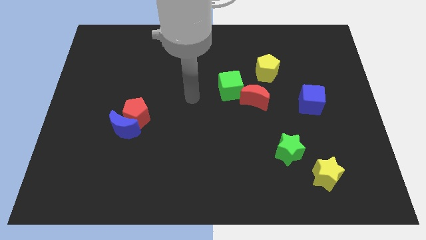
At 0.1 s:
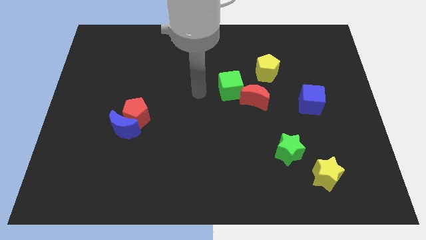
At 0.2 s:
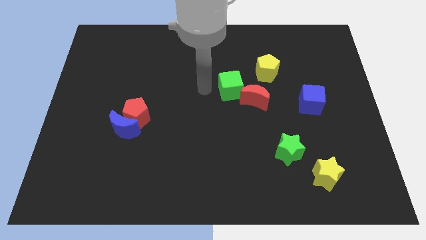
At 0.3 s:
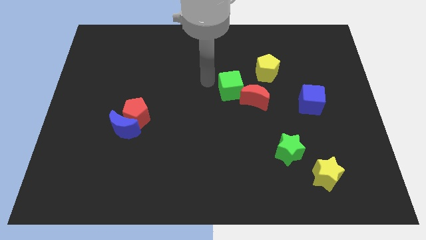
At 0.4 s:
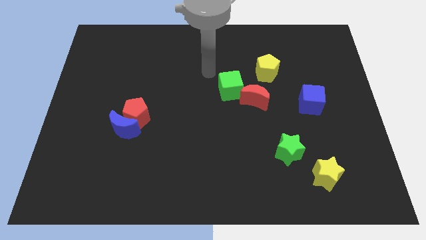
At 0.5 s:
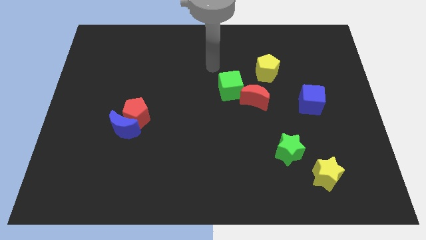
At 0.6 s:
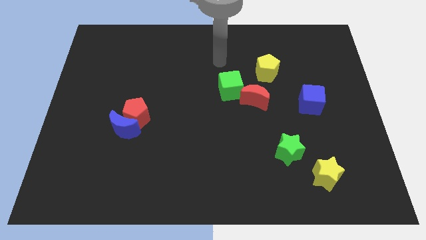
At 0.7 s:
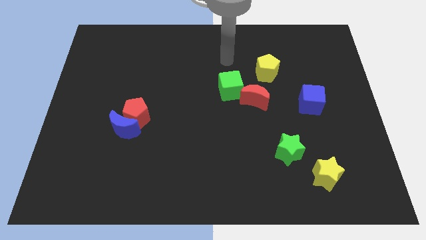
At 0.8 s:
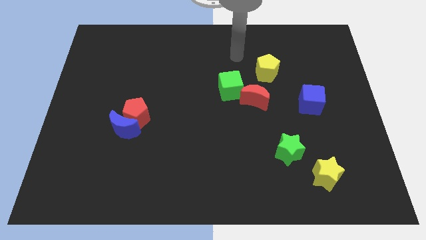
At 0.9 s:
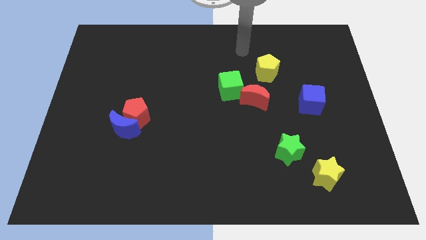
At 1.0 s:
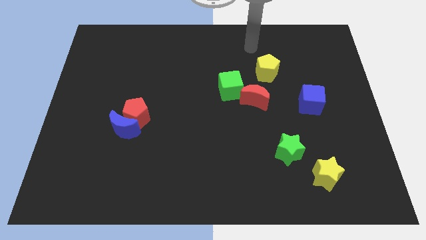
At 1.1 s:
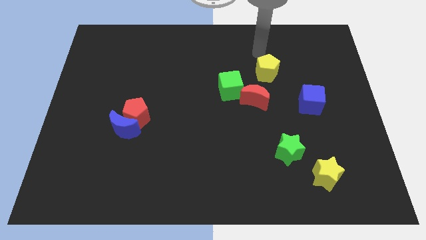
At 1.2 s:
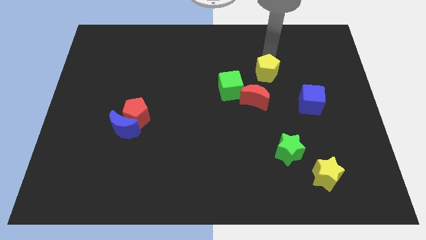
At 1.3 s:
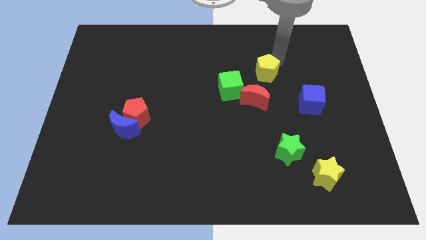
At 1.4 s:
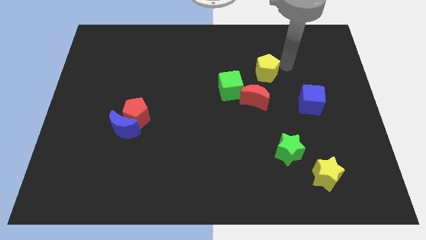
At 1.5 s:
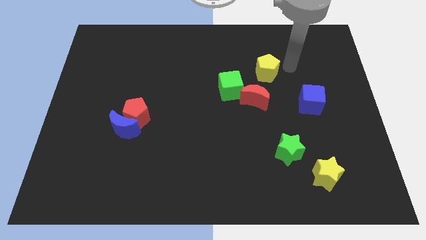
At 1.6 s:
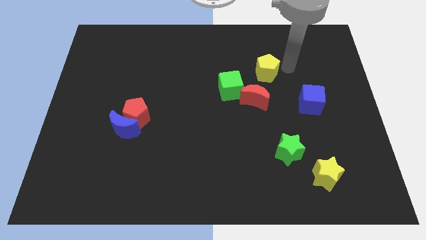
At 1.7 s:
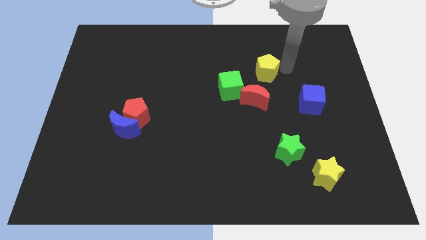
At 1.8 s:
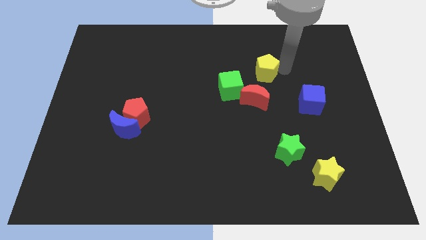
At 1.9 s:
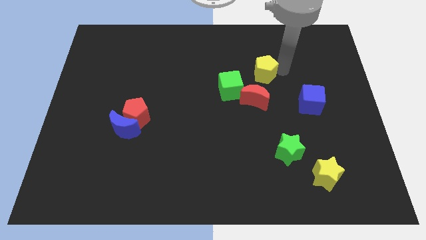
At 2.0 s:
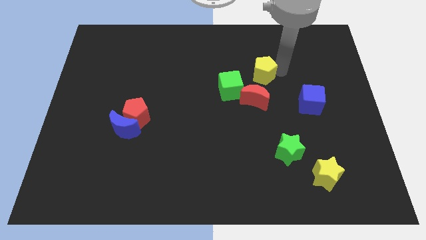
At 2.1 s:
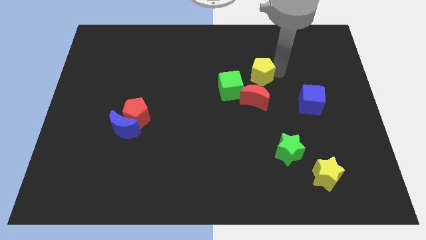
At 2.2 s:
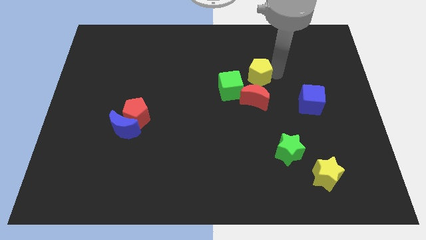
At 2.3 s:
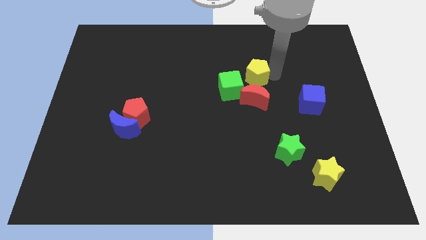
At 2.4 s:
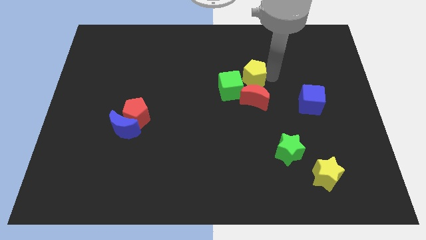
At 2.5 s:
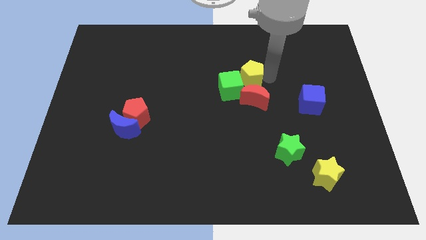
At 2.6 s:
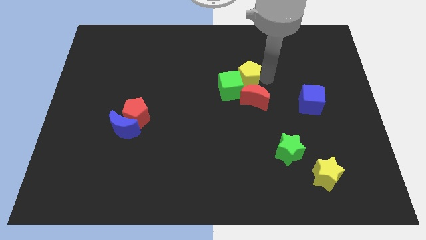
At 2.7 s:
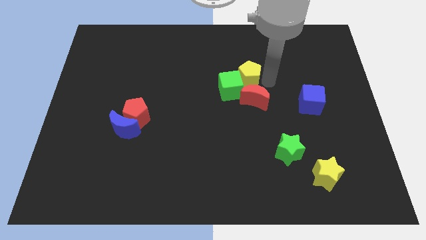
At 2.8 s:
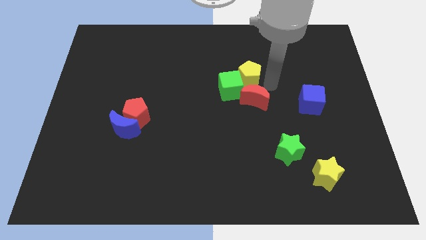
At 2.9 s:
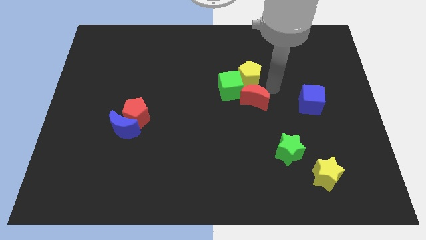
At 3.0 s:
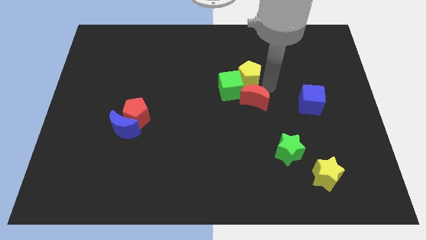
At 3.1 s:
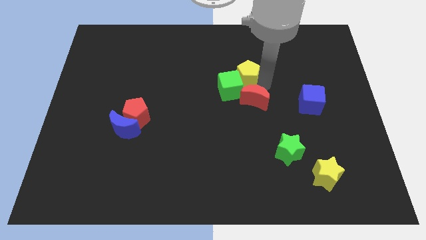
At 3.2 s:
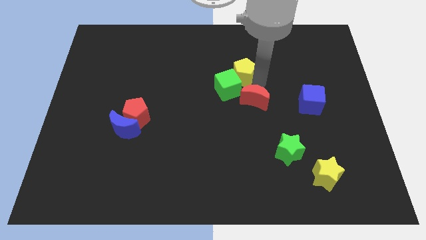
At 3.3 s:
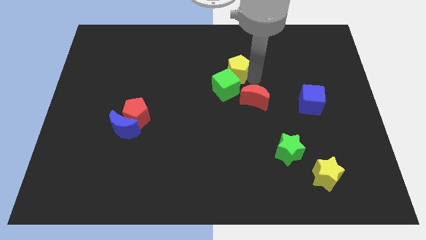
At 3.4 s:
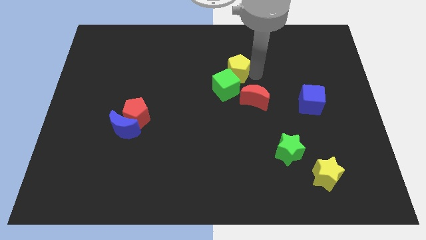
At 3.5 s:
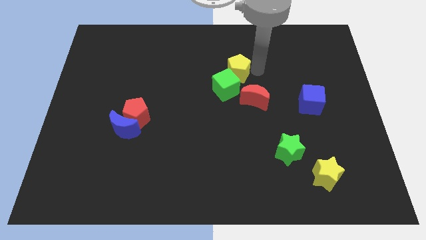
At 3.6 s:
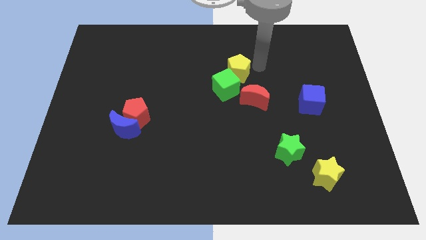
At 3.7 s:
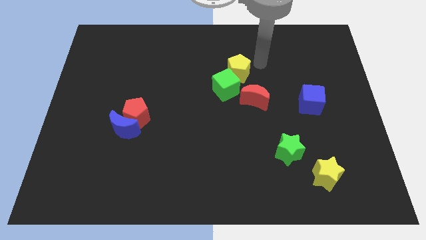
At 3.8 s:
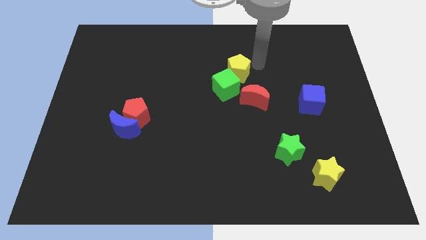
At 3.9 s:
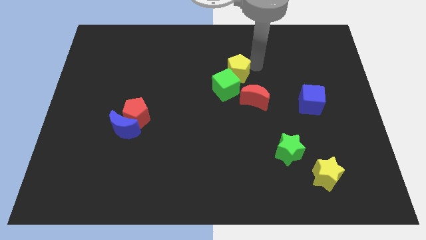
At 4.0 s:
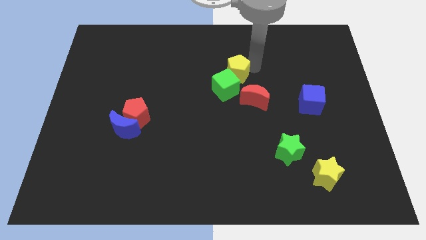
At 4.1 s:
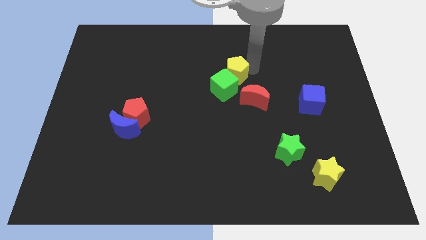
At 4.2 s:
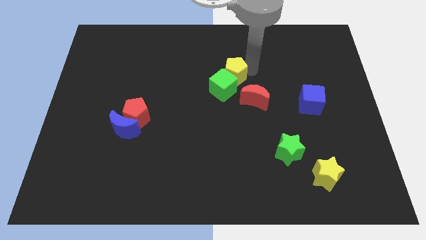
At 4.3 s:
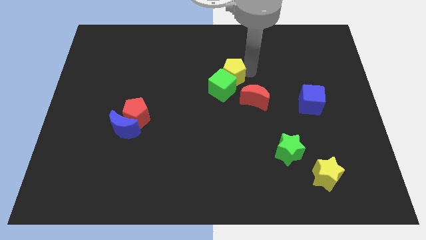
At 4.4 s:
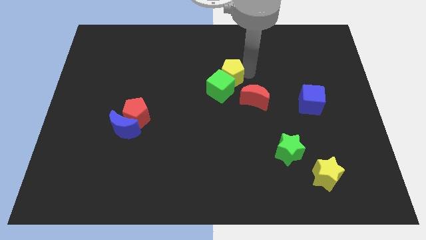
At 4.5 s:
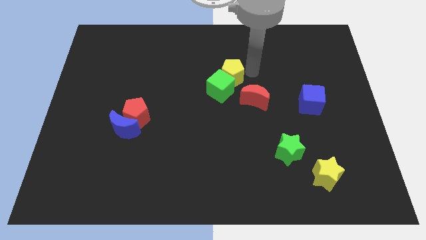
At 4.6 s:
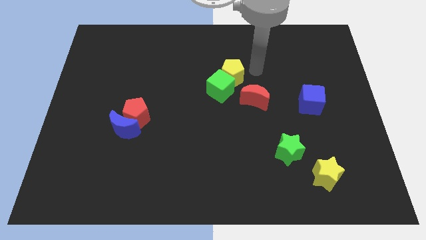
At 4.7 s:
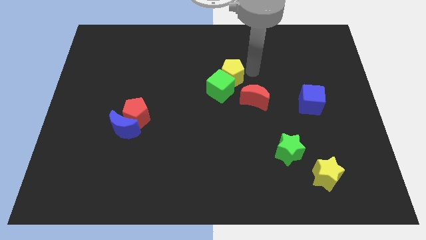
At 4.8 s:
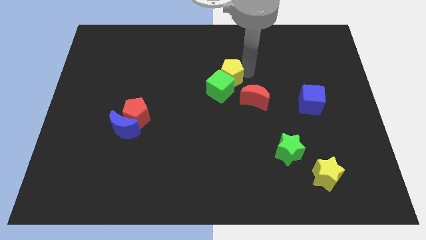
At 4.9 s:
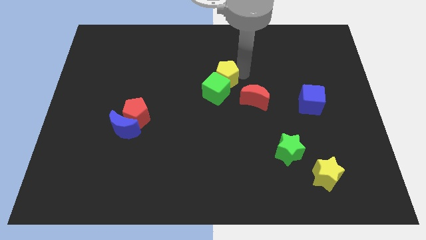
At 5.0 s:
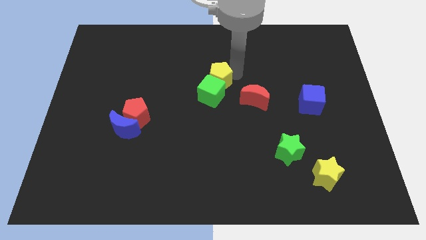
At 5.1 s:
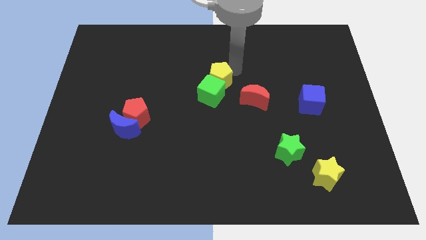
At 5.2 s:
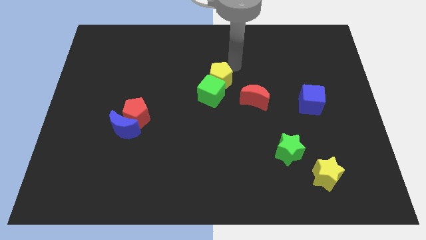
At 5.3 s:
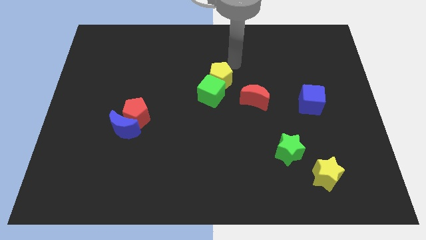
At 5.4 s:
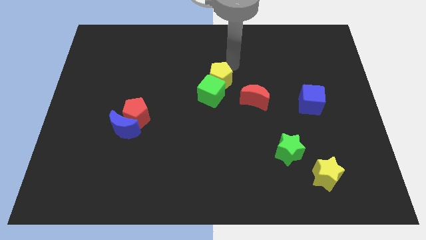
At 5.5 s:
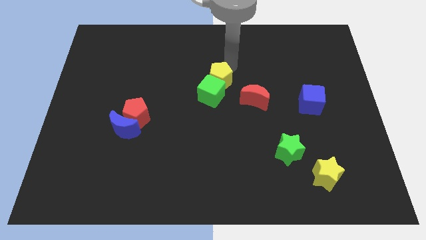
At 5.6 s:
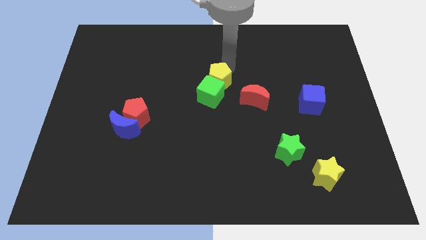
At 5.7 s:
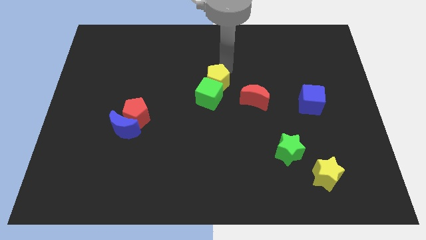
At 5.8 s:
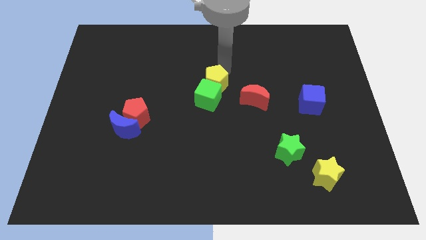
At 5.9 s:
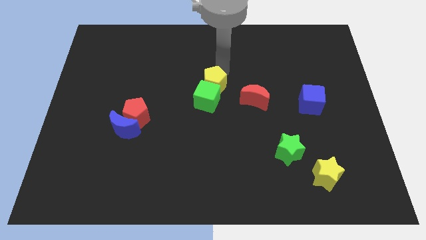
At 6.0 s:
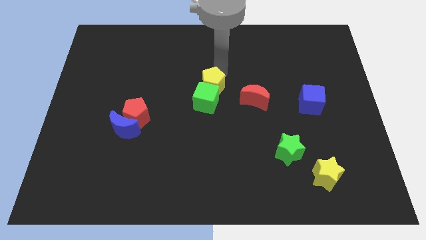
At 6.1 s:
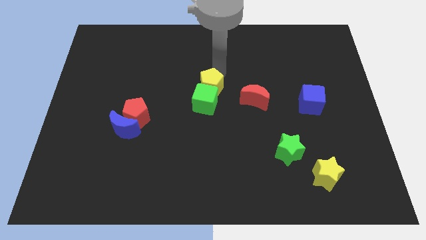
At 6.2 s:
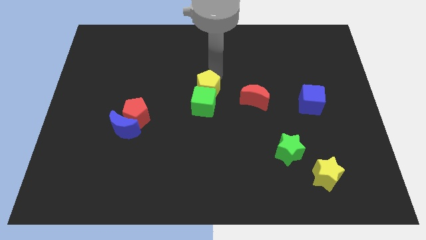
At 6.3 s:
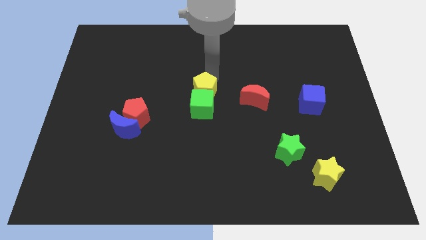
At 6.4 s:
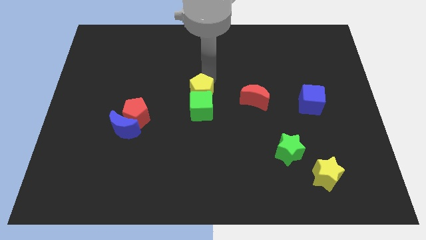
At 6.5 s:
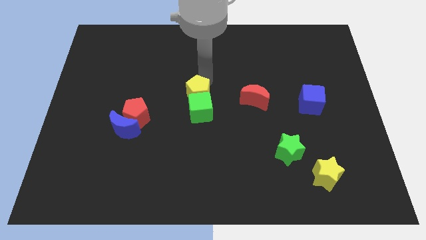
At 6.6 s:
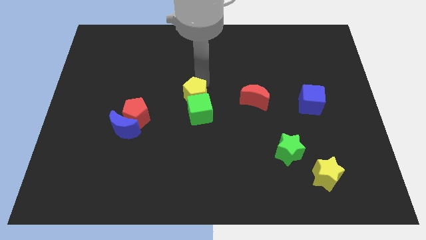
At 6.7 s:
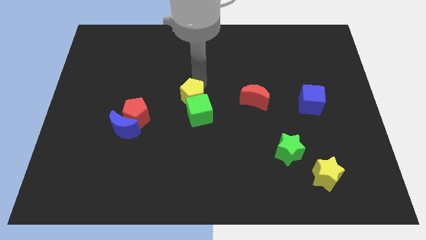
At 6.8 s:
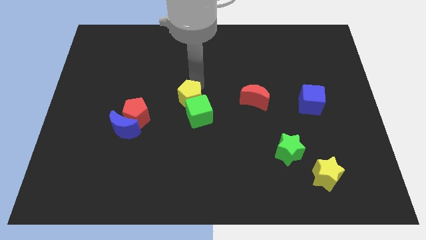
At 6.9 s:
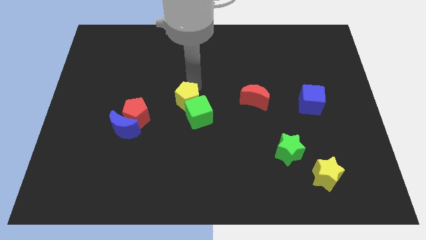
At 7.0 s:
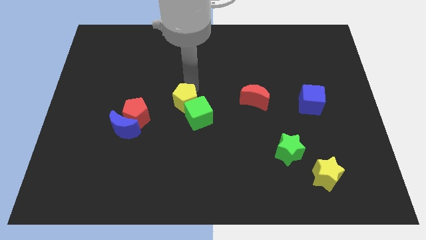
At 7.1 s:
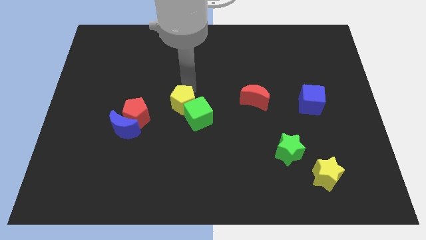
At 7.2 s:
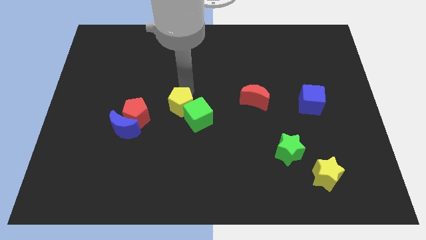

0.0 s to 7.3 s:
slide the yellow pentagon downwards and left diagonally

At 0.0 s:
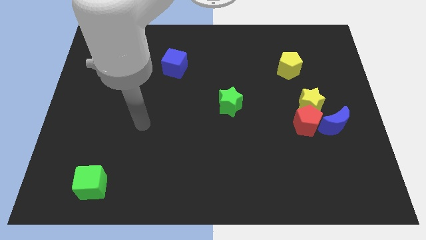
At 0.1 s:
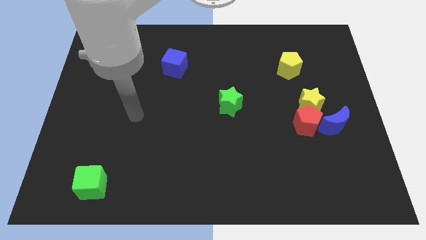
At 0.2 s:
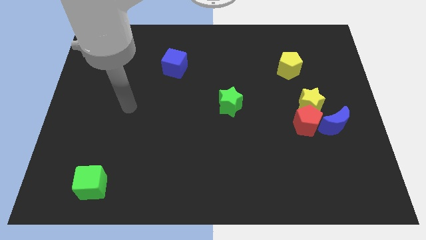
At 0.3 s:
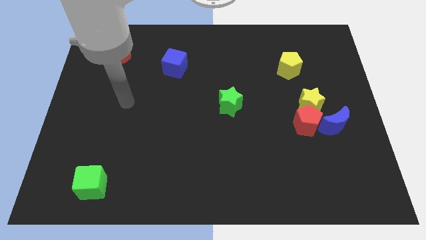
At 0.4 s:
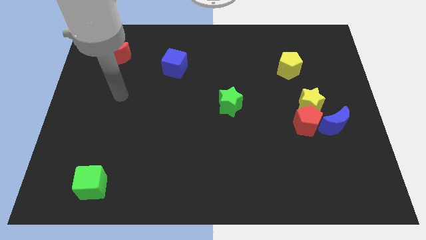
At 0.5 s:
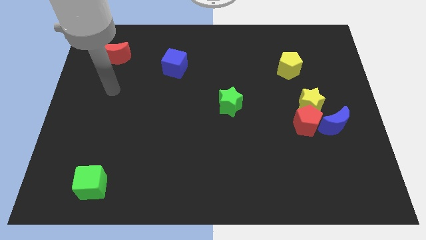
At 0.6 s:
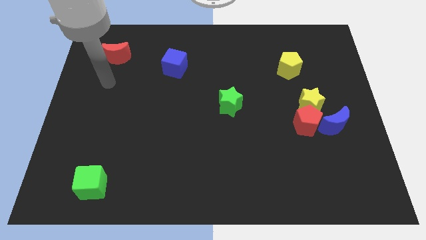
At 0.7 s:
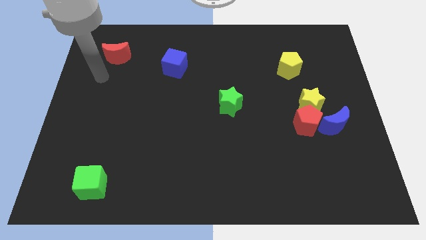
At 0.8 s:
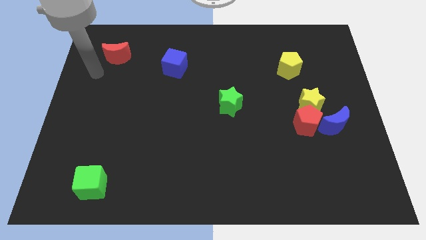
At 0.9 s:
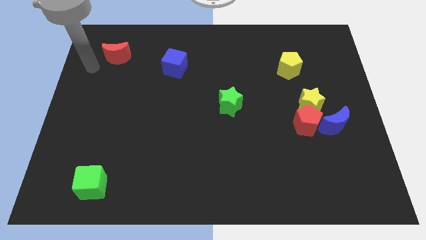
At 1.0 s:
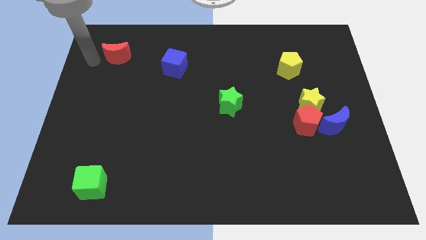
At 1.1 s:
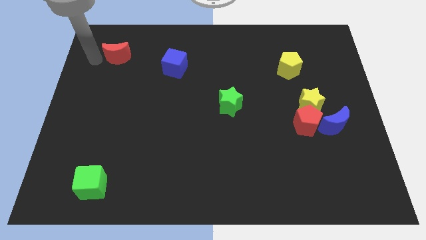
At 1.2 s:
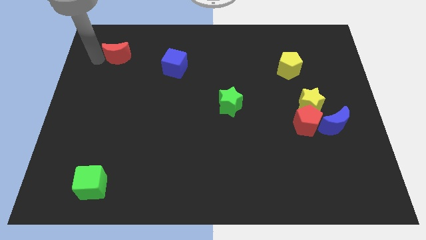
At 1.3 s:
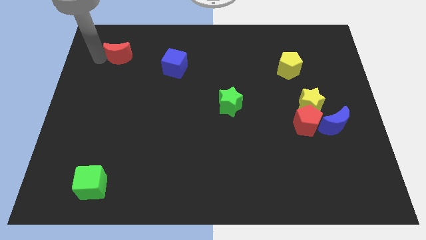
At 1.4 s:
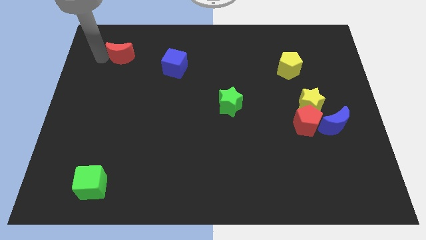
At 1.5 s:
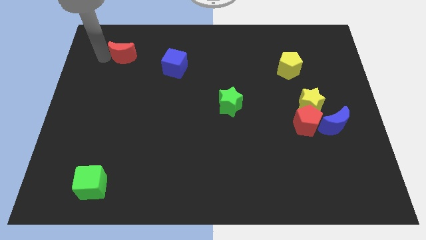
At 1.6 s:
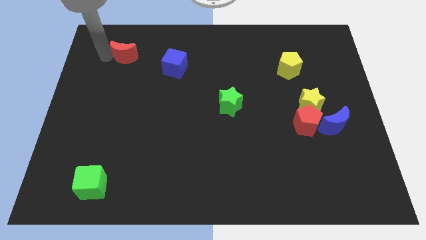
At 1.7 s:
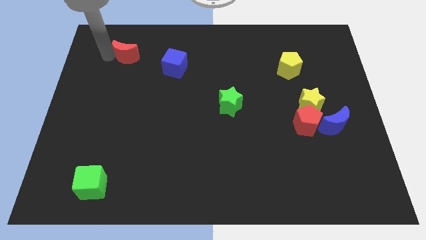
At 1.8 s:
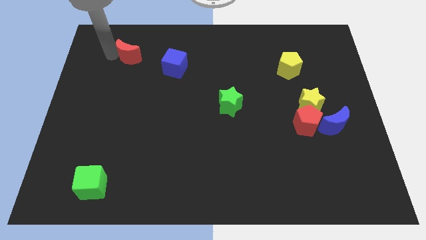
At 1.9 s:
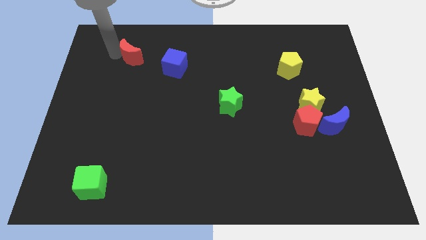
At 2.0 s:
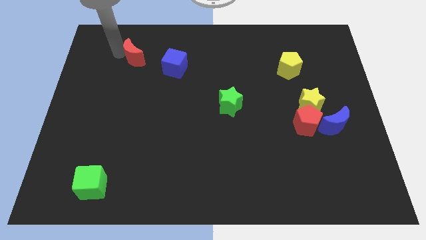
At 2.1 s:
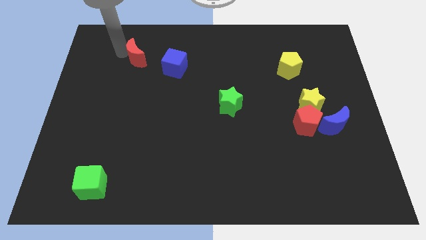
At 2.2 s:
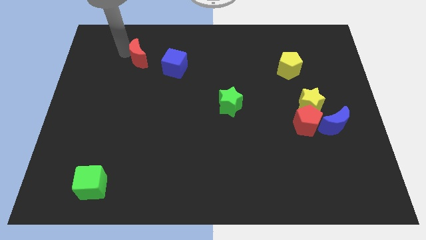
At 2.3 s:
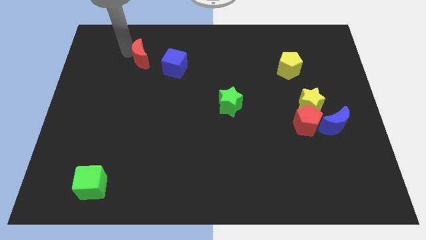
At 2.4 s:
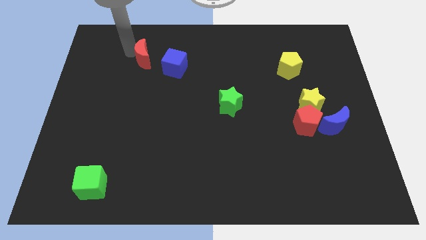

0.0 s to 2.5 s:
slide the red moon to the right a bit
